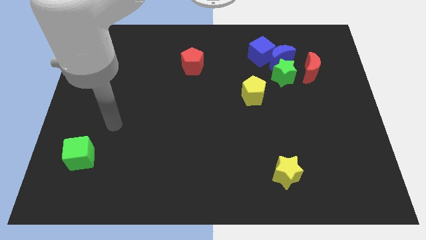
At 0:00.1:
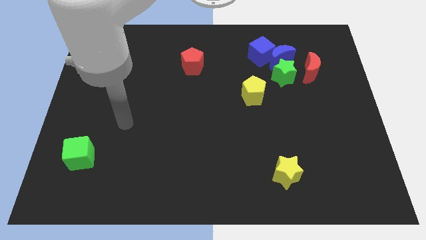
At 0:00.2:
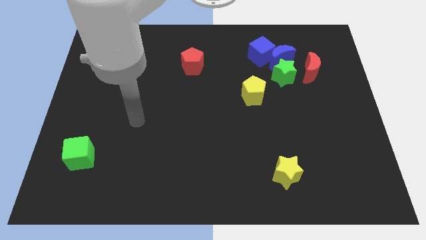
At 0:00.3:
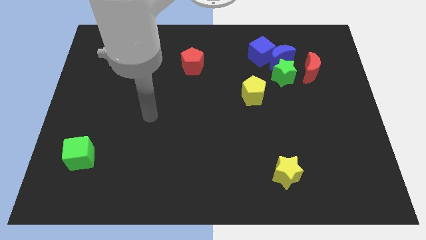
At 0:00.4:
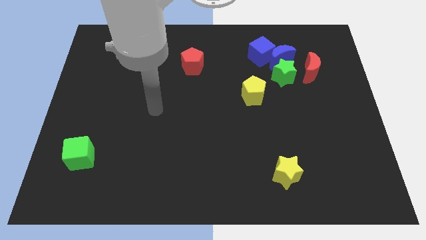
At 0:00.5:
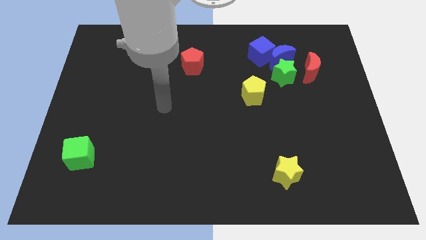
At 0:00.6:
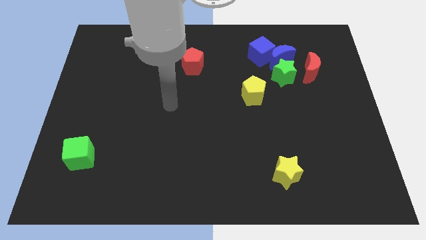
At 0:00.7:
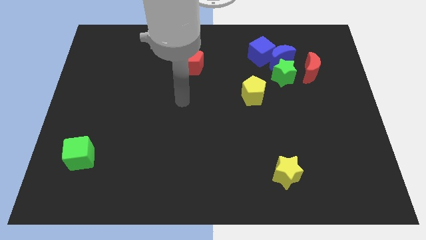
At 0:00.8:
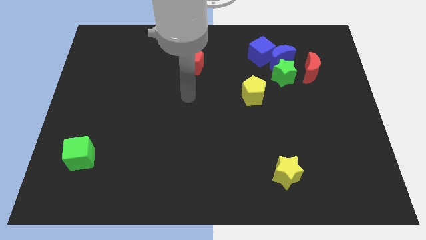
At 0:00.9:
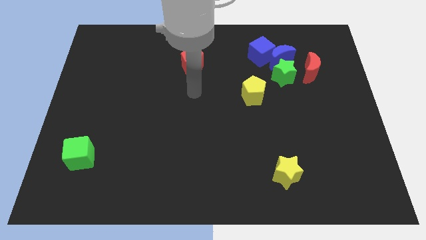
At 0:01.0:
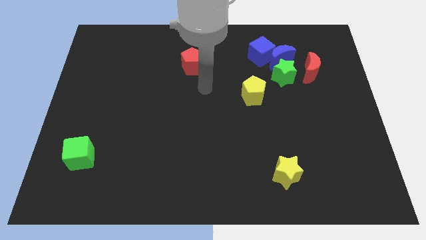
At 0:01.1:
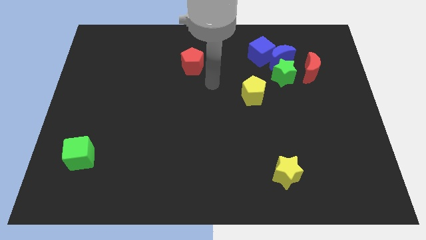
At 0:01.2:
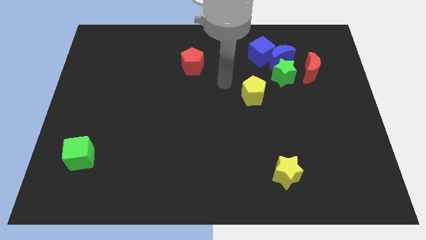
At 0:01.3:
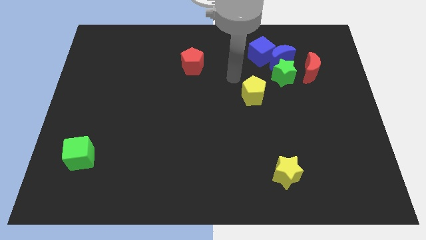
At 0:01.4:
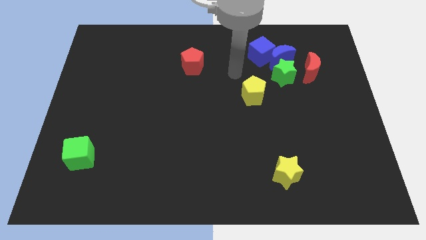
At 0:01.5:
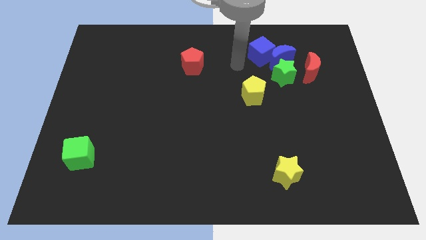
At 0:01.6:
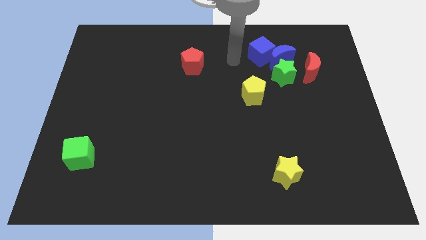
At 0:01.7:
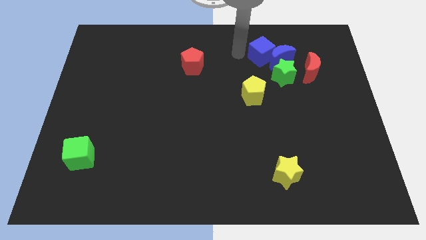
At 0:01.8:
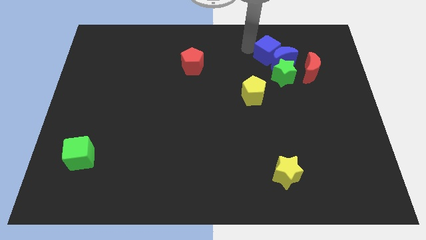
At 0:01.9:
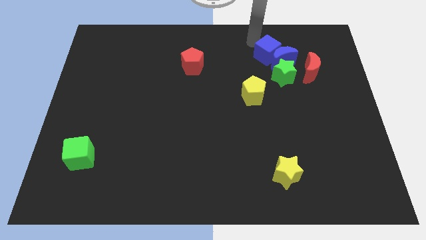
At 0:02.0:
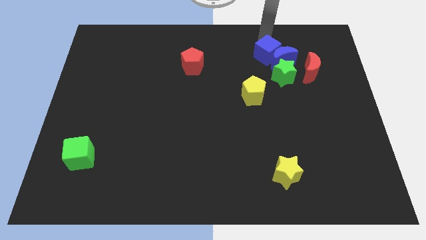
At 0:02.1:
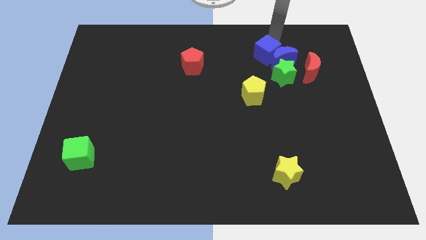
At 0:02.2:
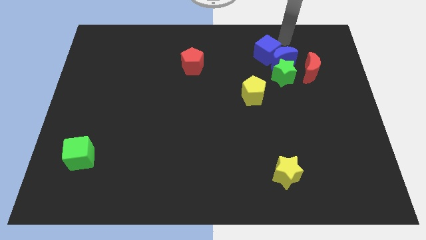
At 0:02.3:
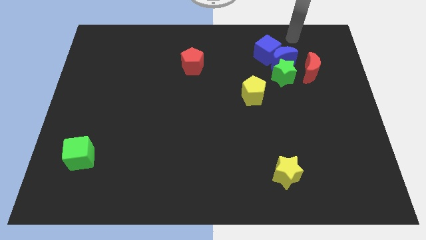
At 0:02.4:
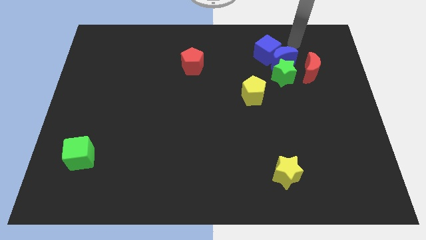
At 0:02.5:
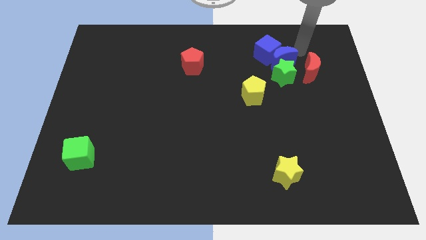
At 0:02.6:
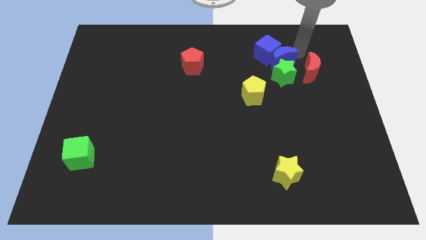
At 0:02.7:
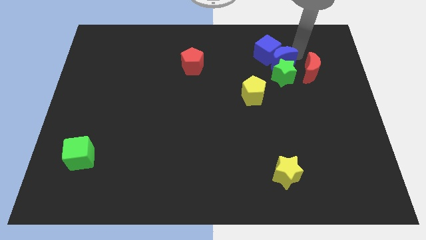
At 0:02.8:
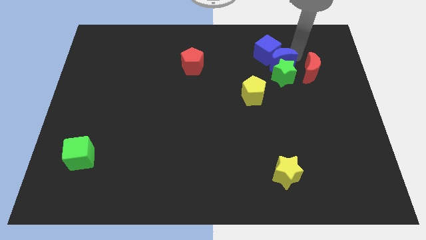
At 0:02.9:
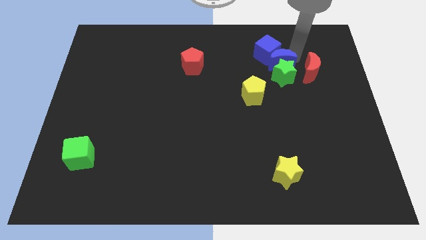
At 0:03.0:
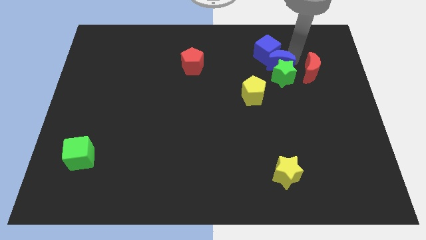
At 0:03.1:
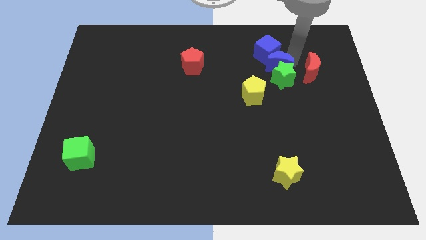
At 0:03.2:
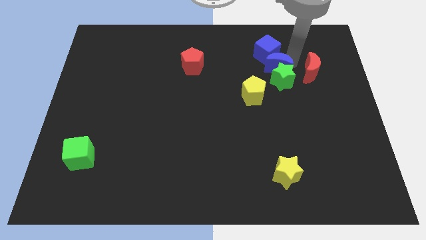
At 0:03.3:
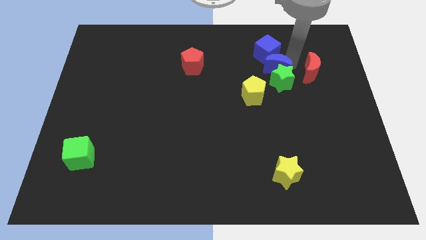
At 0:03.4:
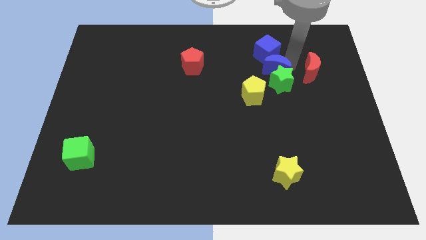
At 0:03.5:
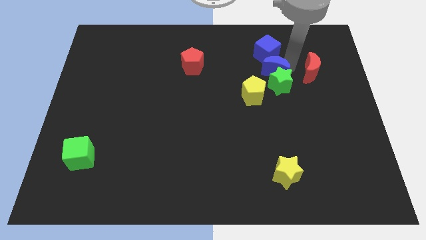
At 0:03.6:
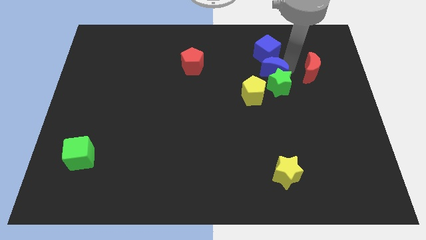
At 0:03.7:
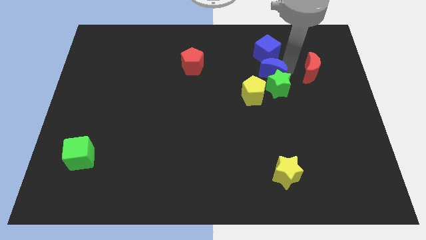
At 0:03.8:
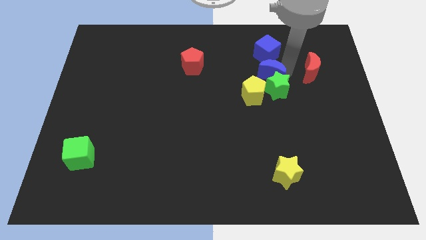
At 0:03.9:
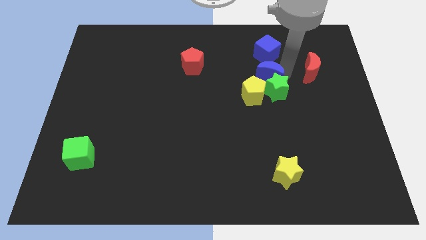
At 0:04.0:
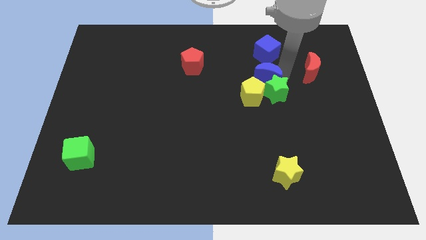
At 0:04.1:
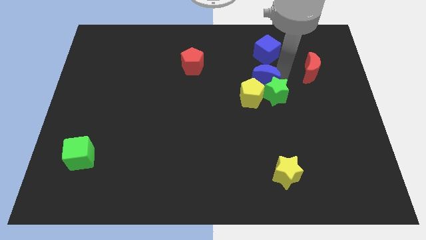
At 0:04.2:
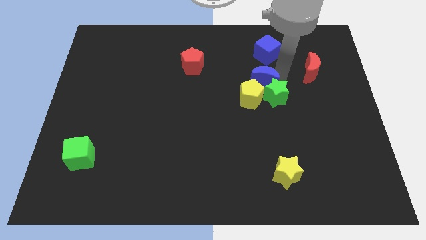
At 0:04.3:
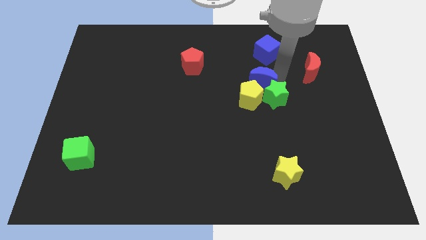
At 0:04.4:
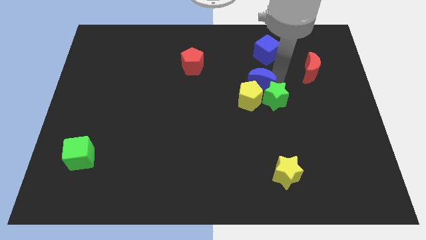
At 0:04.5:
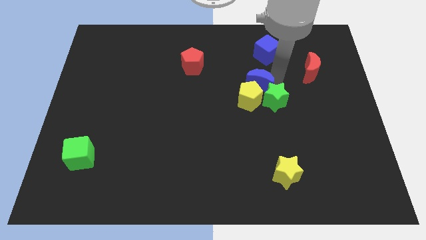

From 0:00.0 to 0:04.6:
slide the blue moon to the center

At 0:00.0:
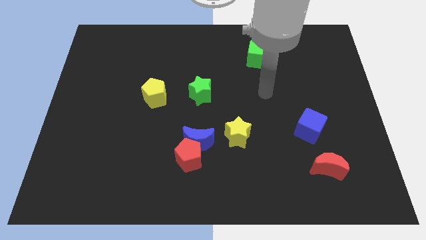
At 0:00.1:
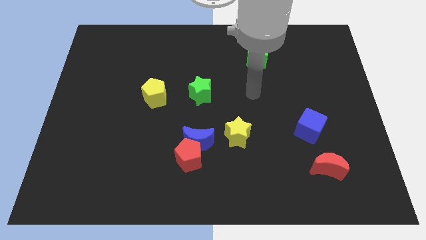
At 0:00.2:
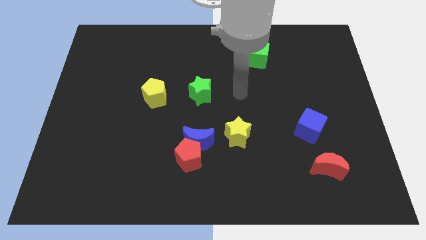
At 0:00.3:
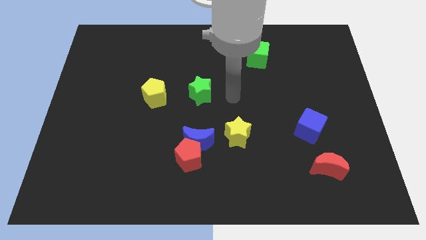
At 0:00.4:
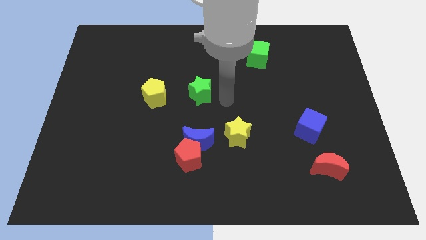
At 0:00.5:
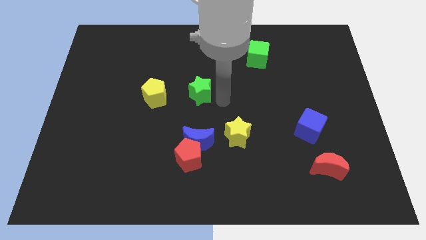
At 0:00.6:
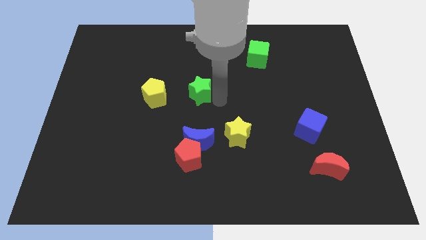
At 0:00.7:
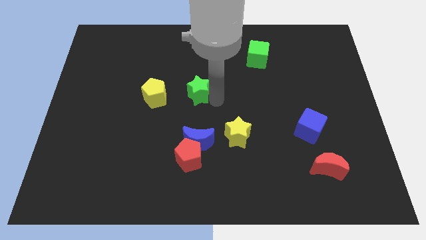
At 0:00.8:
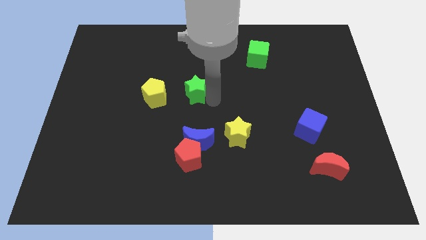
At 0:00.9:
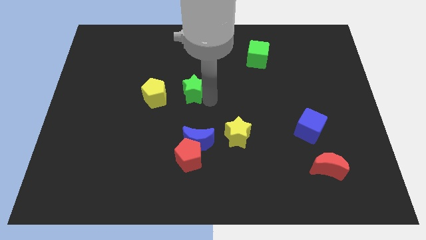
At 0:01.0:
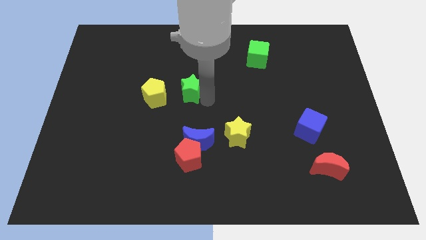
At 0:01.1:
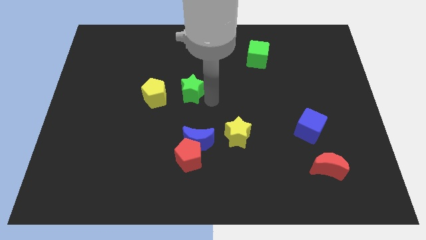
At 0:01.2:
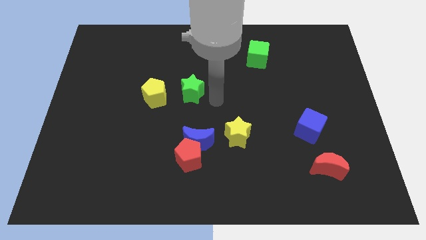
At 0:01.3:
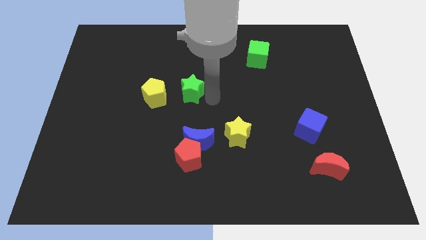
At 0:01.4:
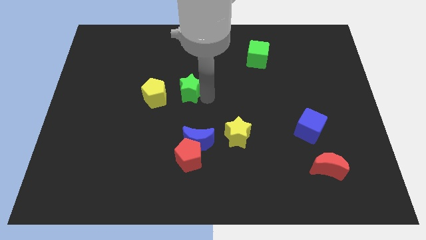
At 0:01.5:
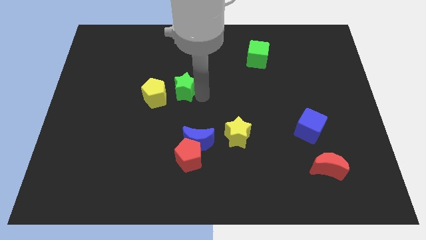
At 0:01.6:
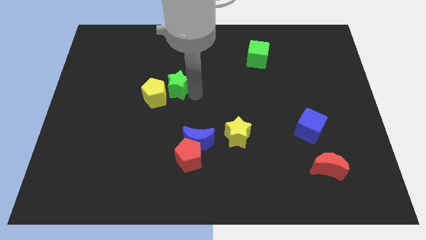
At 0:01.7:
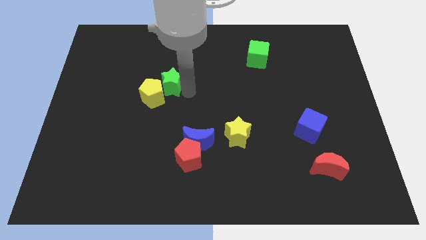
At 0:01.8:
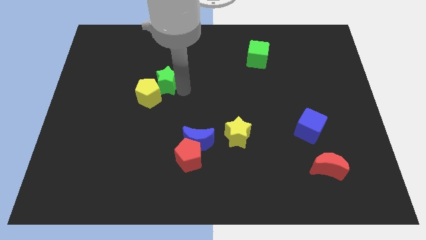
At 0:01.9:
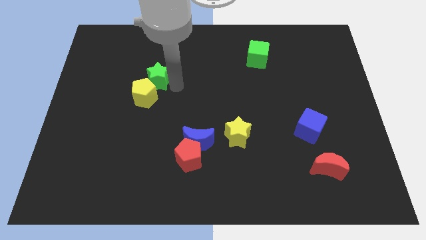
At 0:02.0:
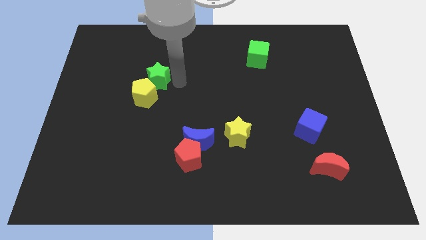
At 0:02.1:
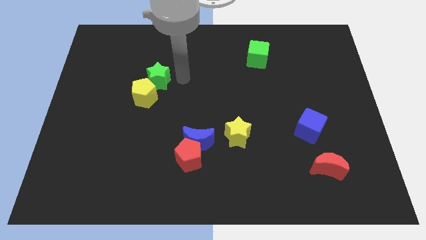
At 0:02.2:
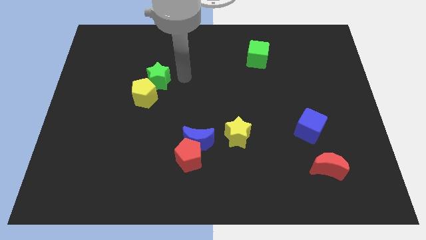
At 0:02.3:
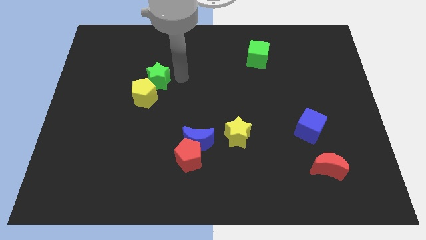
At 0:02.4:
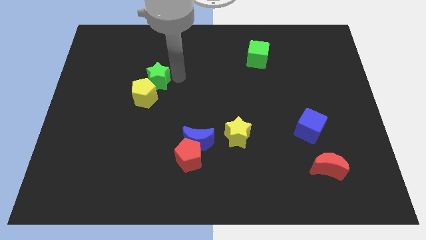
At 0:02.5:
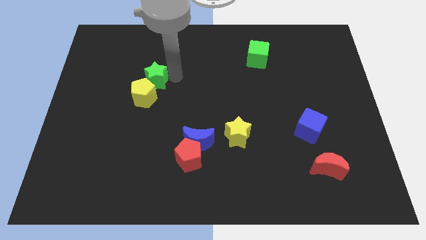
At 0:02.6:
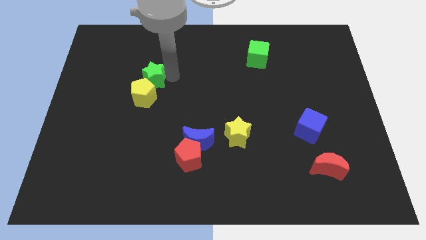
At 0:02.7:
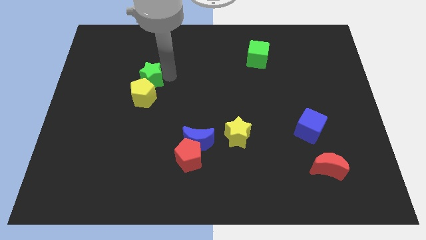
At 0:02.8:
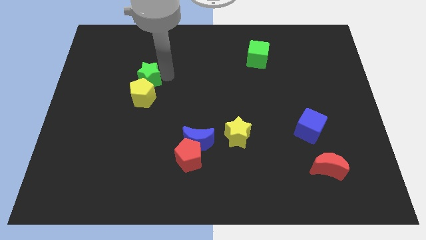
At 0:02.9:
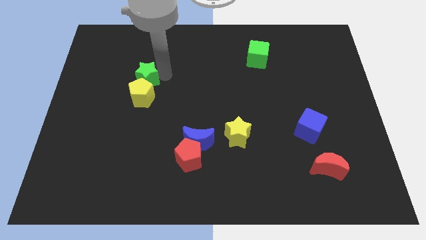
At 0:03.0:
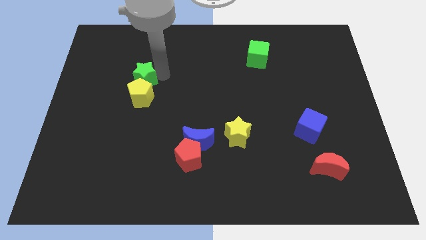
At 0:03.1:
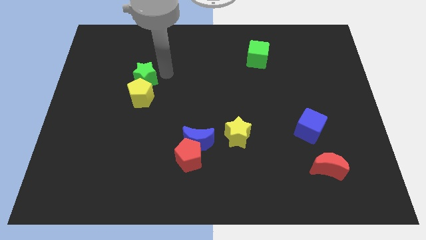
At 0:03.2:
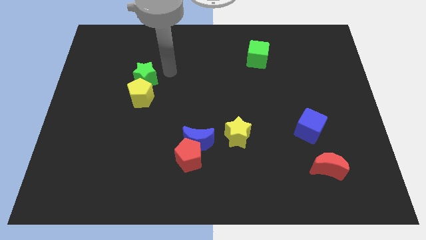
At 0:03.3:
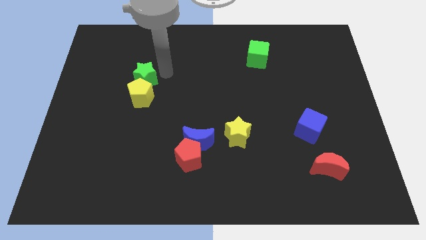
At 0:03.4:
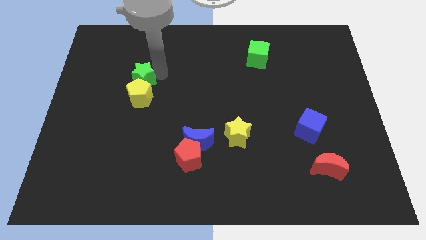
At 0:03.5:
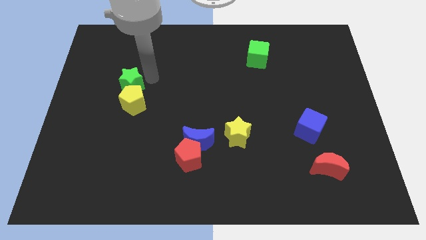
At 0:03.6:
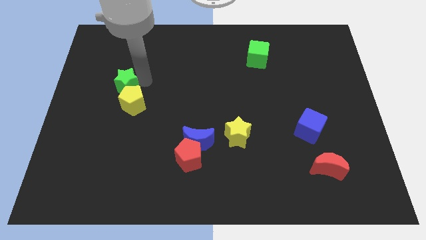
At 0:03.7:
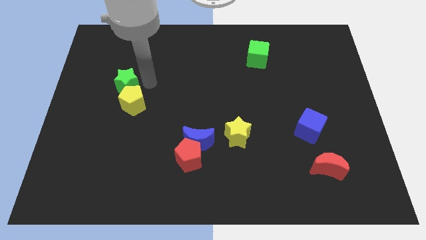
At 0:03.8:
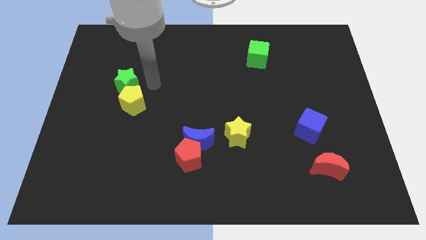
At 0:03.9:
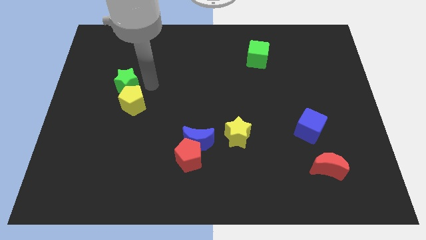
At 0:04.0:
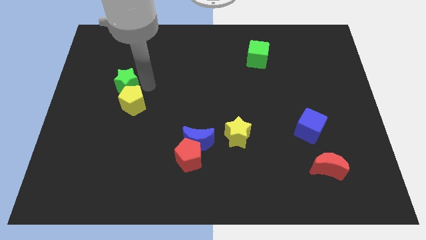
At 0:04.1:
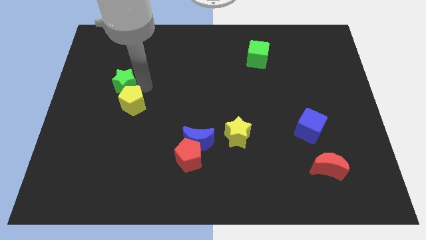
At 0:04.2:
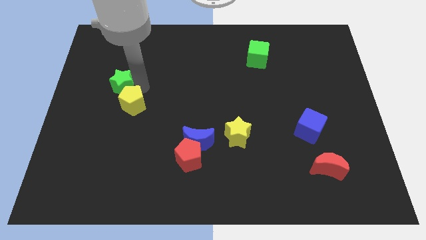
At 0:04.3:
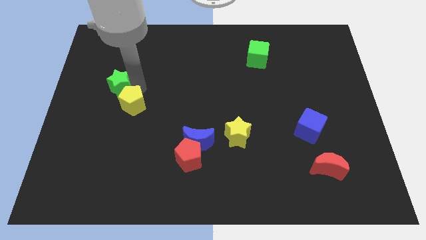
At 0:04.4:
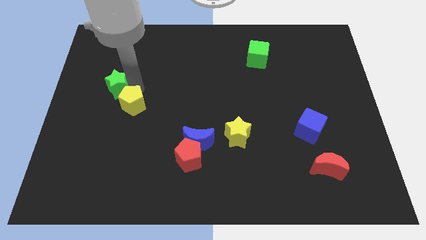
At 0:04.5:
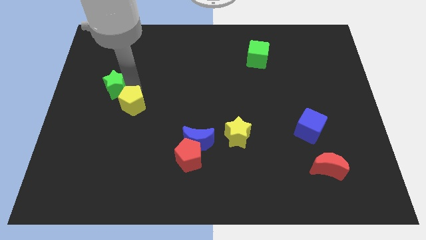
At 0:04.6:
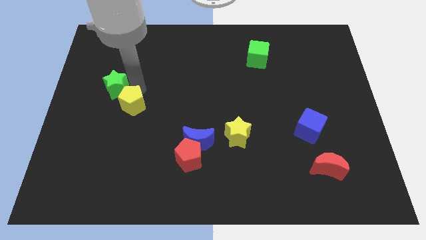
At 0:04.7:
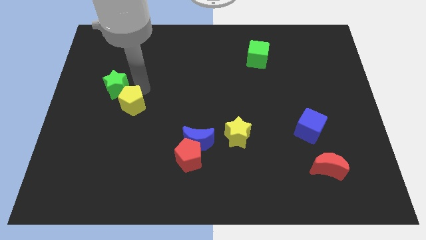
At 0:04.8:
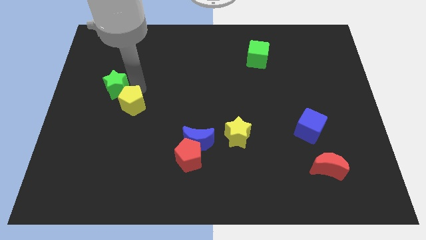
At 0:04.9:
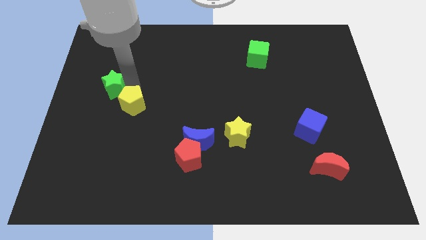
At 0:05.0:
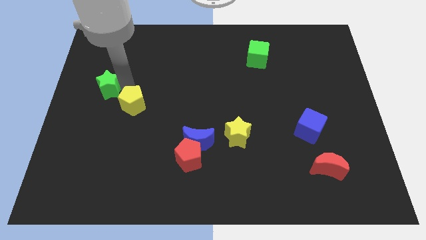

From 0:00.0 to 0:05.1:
push the green star to the left side of the board
